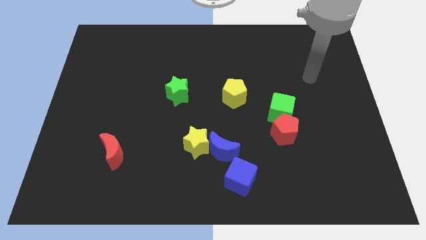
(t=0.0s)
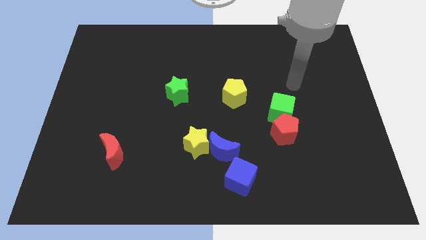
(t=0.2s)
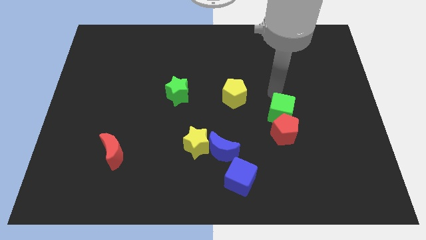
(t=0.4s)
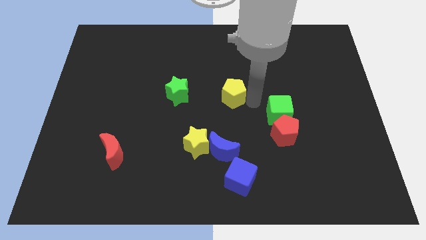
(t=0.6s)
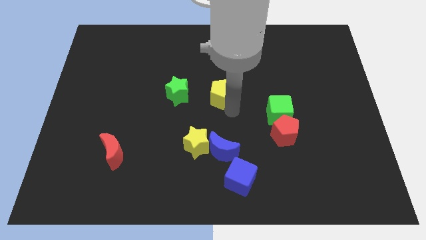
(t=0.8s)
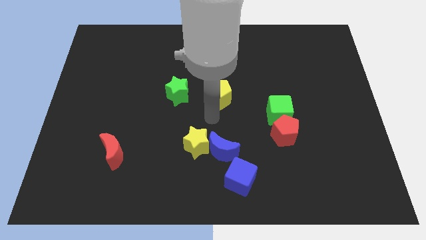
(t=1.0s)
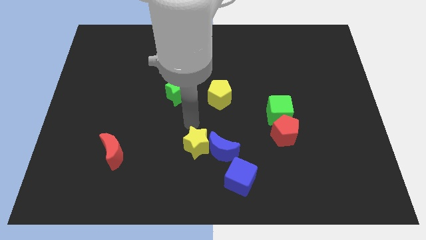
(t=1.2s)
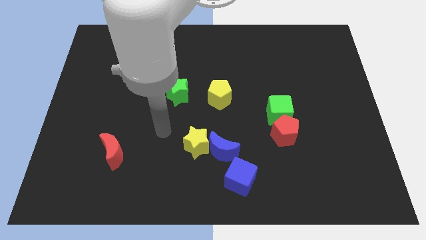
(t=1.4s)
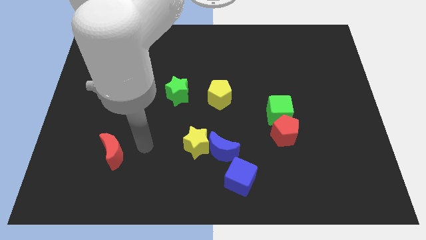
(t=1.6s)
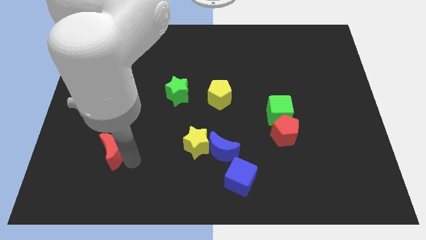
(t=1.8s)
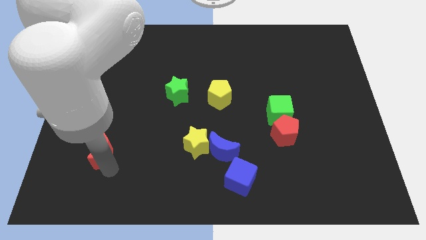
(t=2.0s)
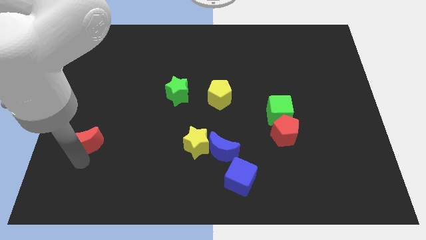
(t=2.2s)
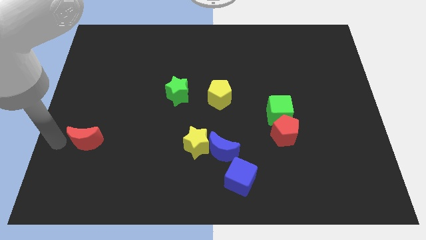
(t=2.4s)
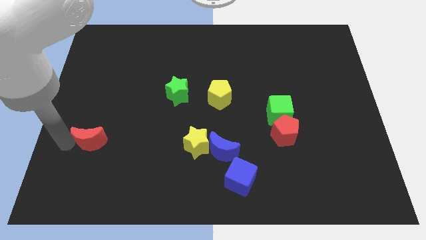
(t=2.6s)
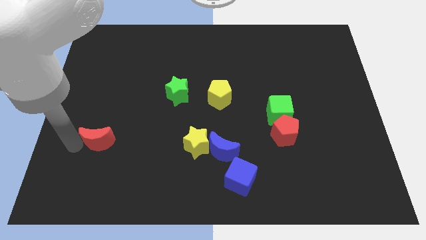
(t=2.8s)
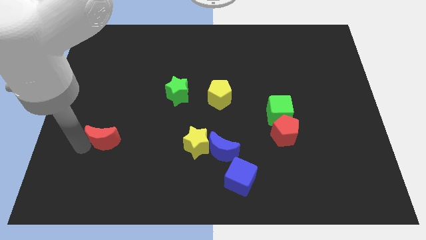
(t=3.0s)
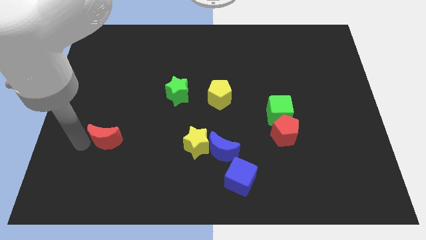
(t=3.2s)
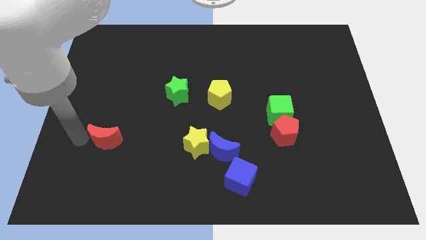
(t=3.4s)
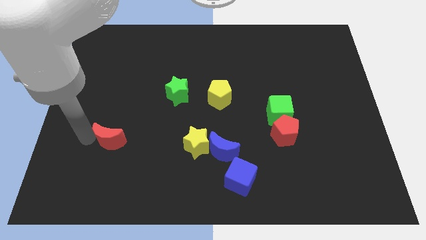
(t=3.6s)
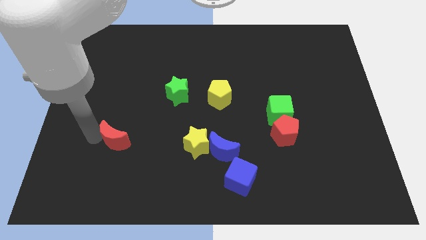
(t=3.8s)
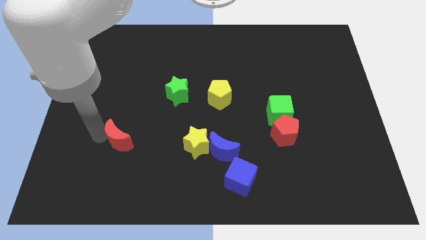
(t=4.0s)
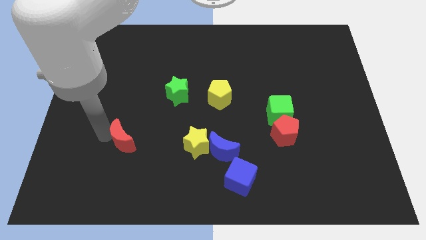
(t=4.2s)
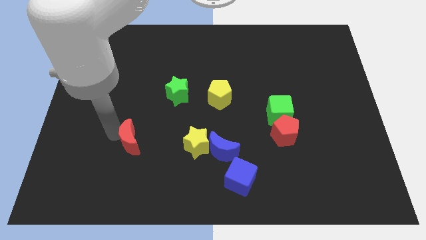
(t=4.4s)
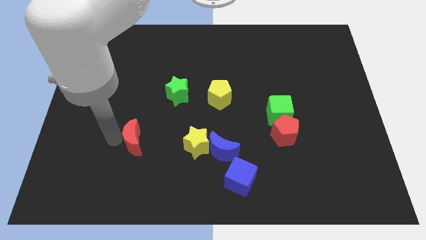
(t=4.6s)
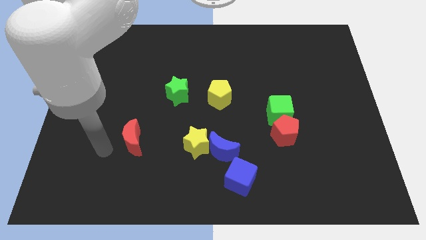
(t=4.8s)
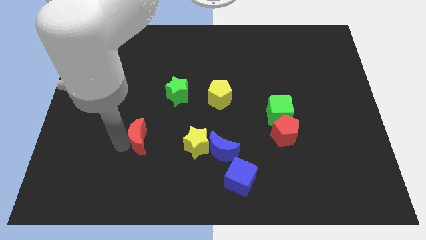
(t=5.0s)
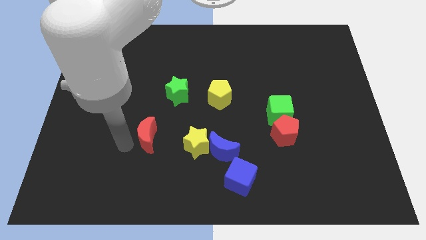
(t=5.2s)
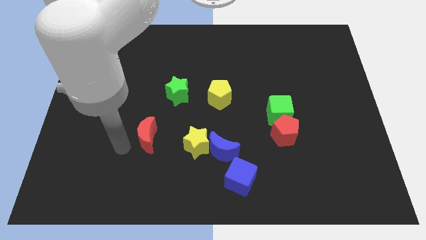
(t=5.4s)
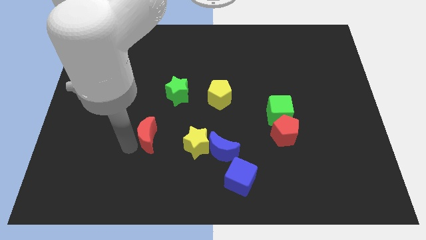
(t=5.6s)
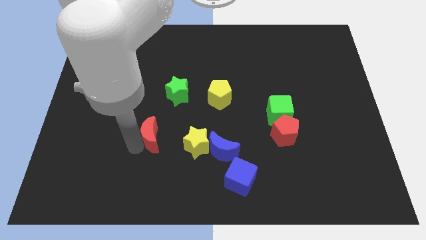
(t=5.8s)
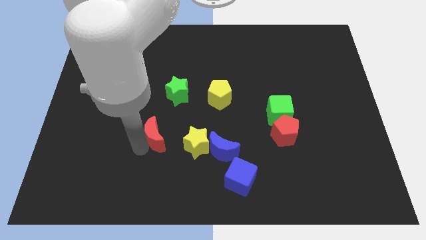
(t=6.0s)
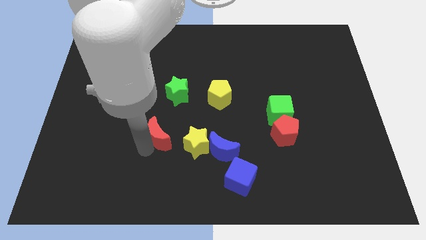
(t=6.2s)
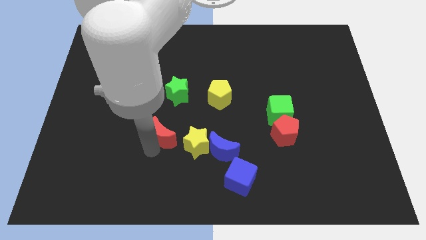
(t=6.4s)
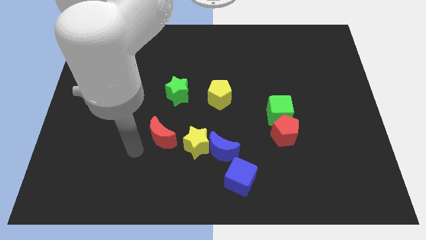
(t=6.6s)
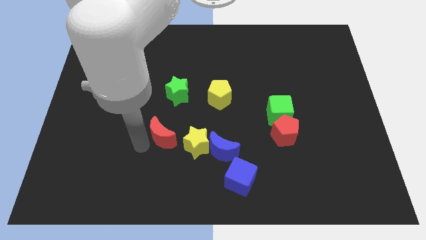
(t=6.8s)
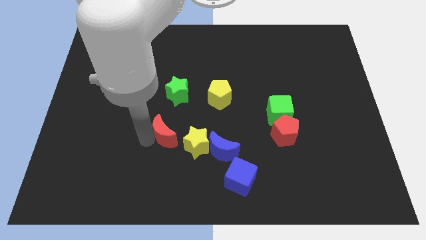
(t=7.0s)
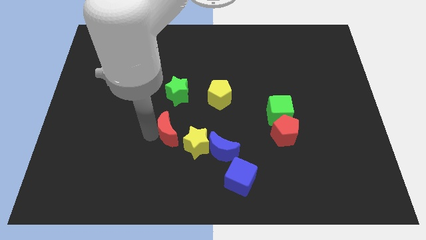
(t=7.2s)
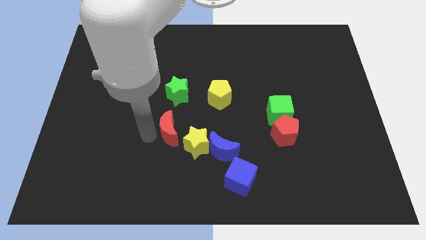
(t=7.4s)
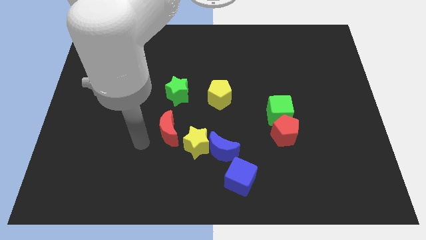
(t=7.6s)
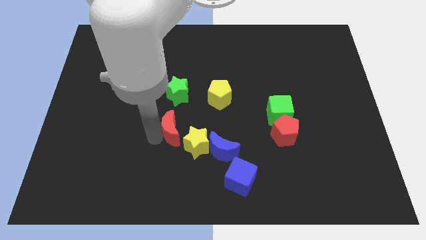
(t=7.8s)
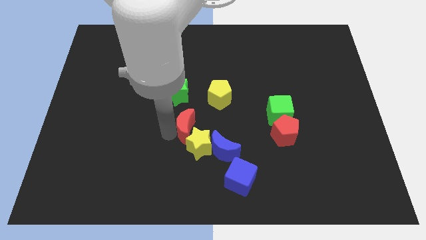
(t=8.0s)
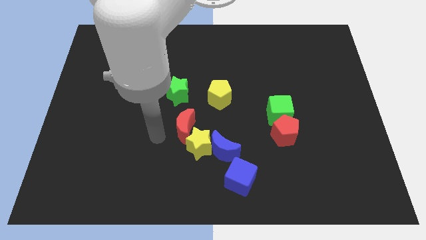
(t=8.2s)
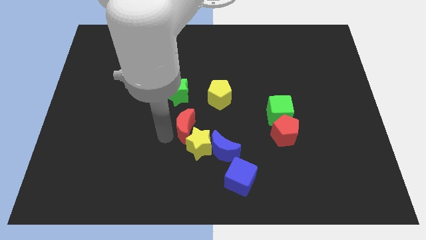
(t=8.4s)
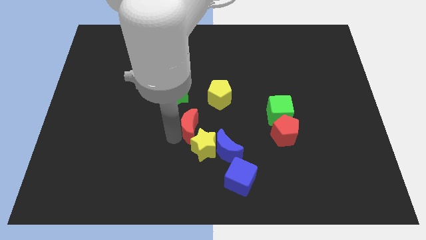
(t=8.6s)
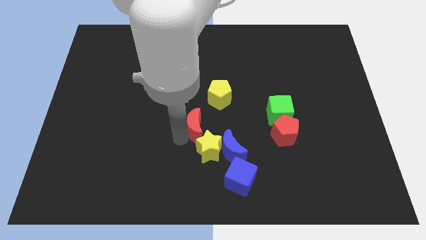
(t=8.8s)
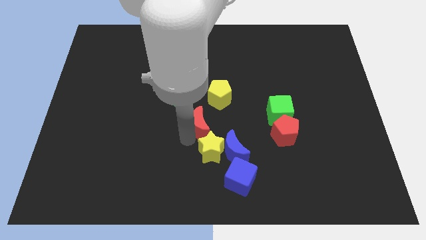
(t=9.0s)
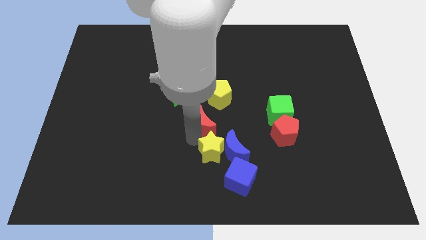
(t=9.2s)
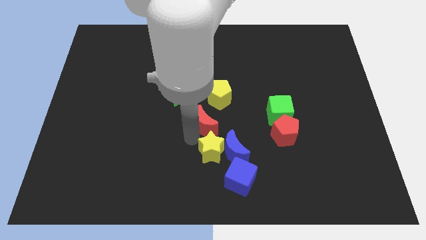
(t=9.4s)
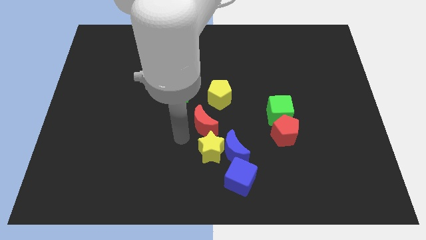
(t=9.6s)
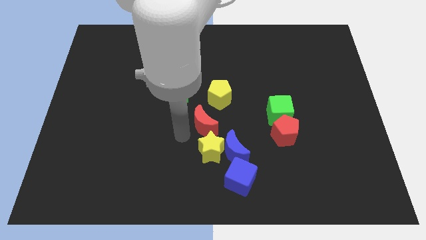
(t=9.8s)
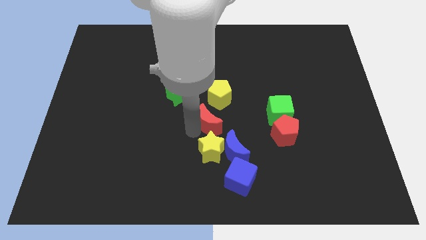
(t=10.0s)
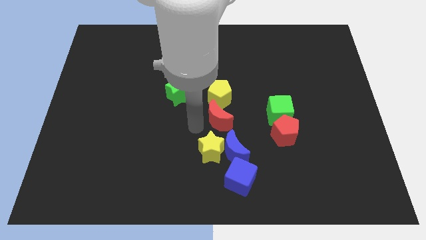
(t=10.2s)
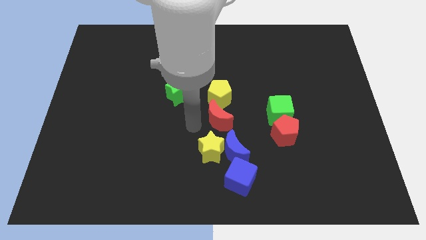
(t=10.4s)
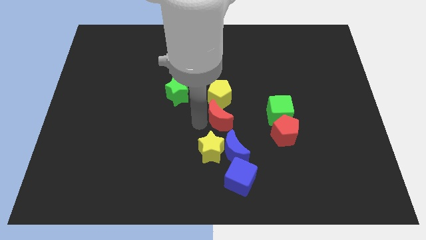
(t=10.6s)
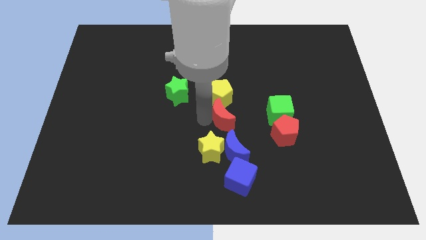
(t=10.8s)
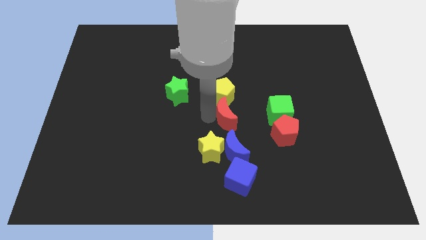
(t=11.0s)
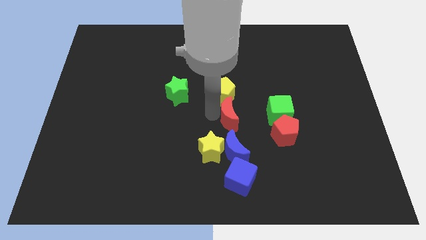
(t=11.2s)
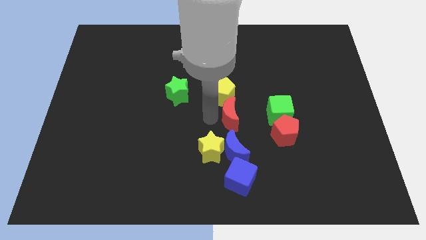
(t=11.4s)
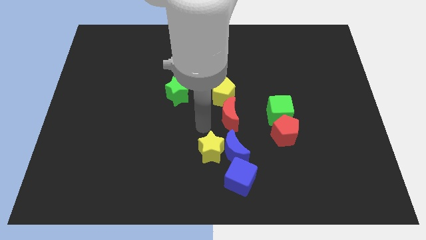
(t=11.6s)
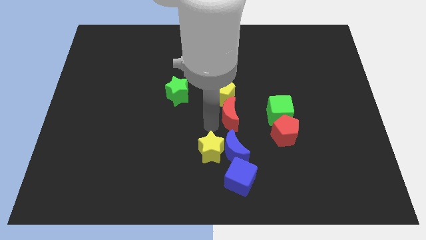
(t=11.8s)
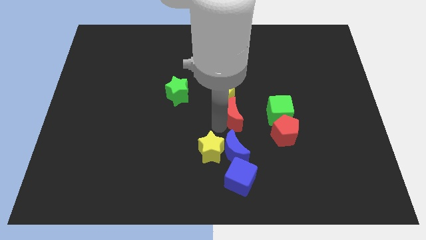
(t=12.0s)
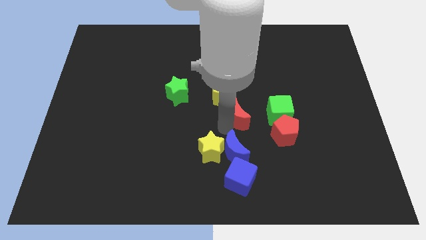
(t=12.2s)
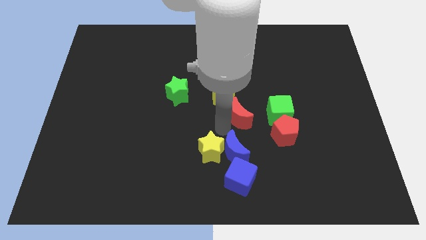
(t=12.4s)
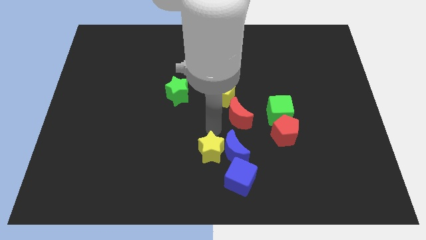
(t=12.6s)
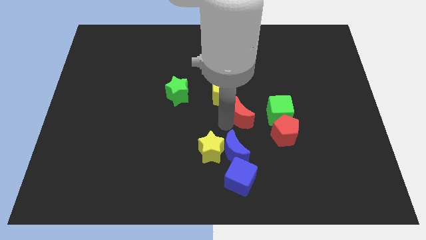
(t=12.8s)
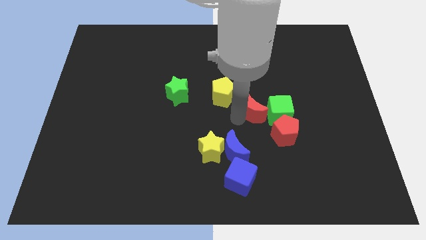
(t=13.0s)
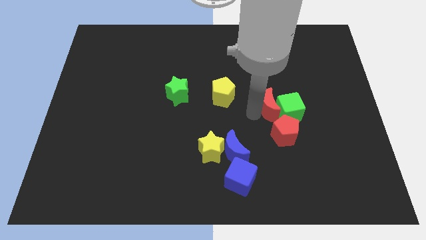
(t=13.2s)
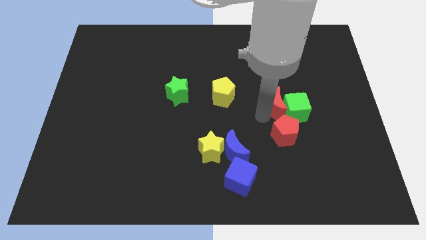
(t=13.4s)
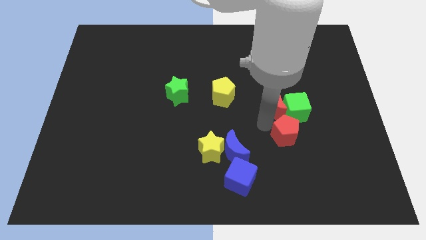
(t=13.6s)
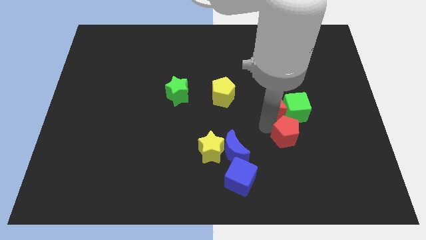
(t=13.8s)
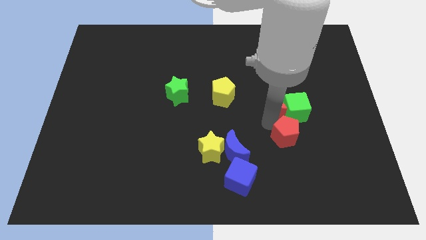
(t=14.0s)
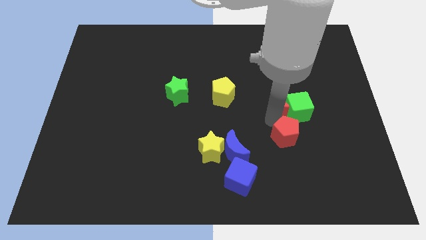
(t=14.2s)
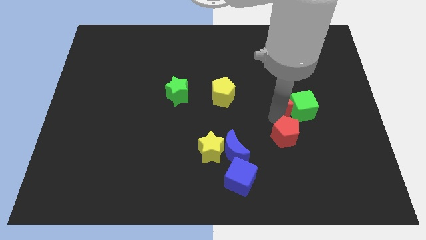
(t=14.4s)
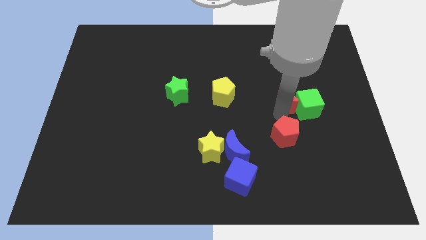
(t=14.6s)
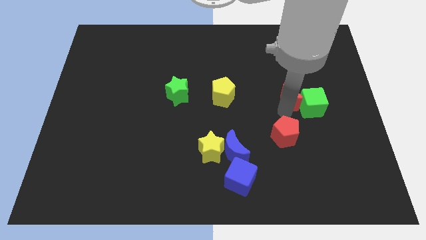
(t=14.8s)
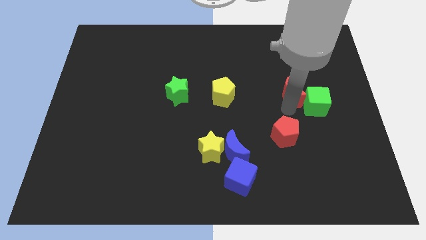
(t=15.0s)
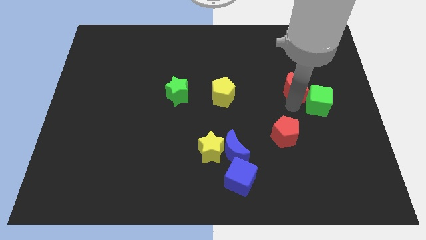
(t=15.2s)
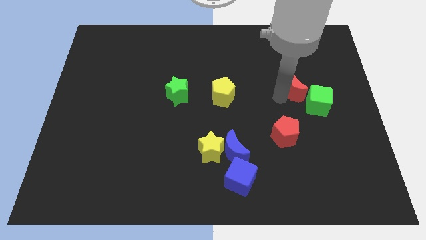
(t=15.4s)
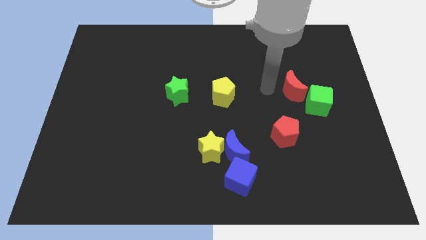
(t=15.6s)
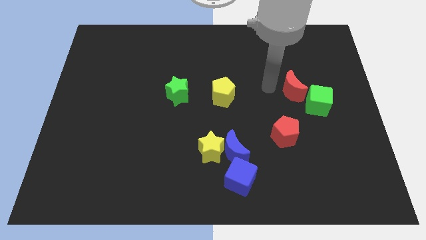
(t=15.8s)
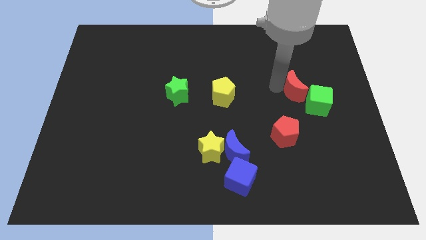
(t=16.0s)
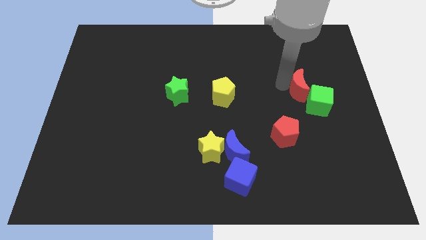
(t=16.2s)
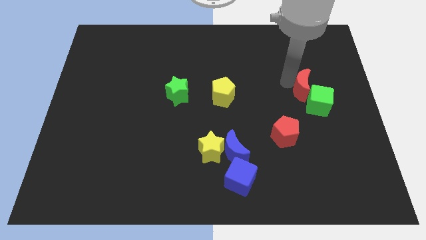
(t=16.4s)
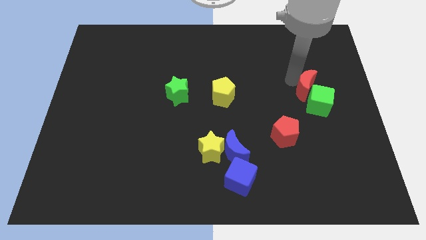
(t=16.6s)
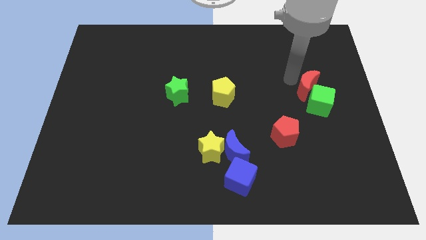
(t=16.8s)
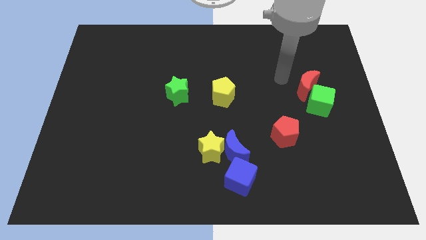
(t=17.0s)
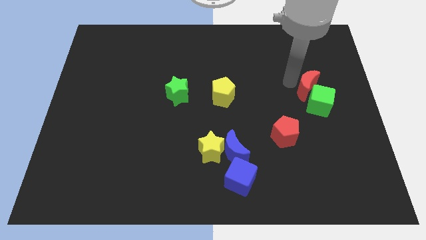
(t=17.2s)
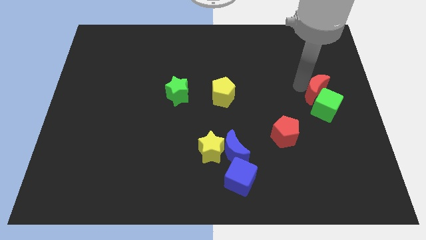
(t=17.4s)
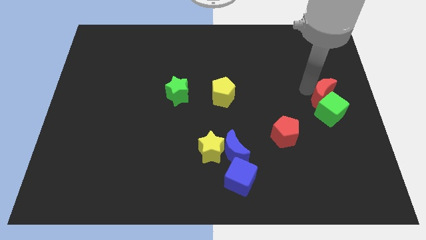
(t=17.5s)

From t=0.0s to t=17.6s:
move the red moon to the center right
